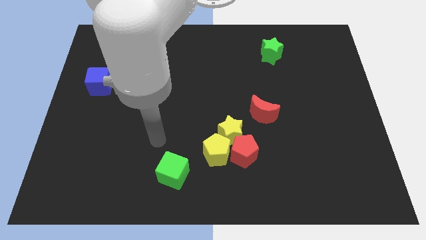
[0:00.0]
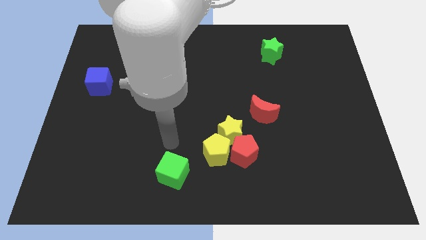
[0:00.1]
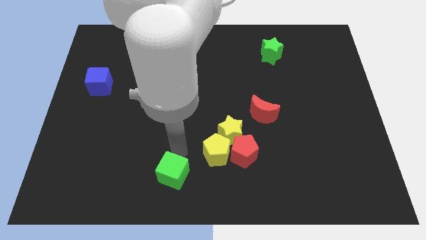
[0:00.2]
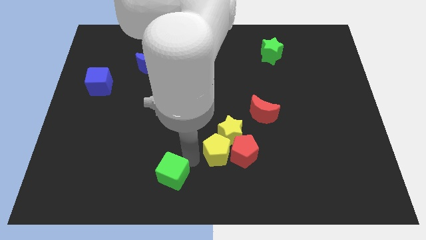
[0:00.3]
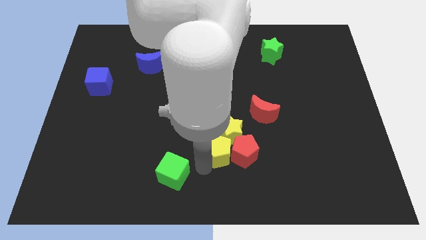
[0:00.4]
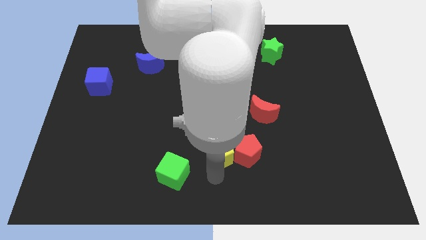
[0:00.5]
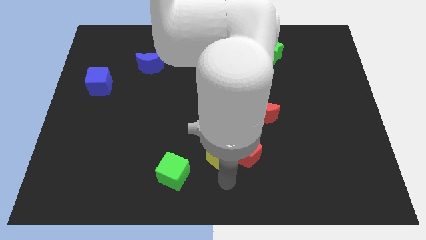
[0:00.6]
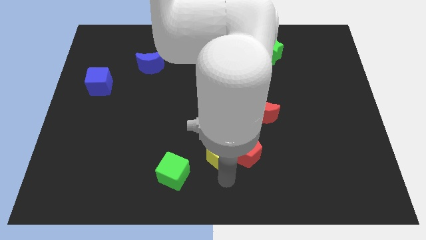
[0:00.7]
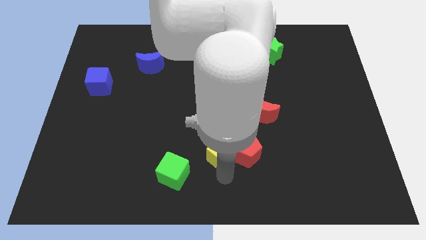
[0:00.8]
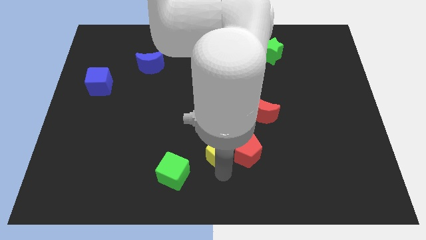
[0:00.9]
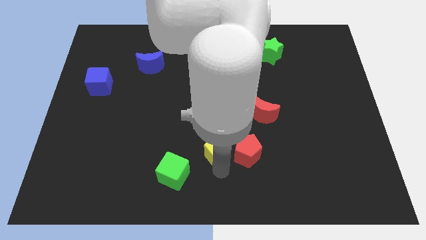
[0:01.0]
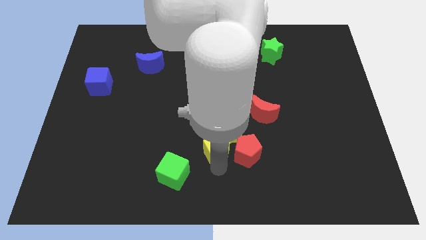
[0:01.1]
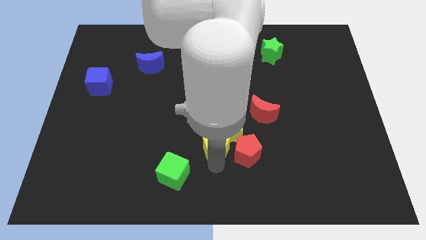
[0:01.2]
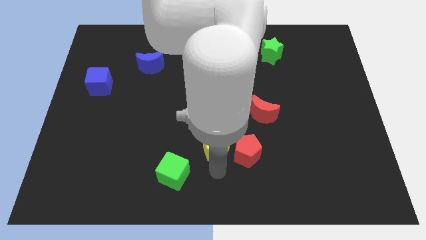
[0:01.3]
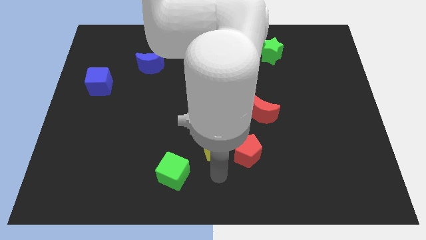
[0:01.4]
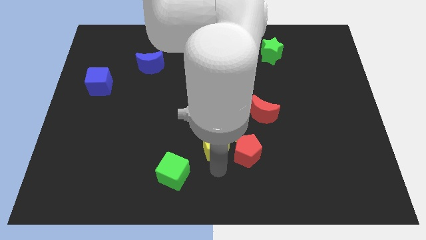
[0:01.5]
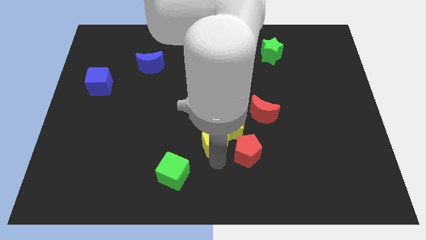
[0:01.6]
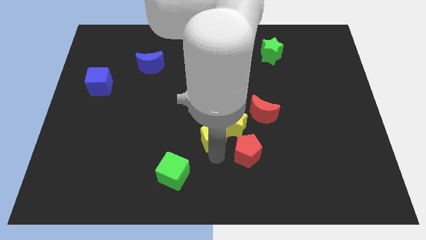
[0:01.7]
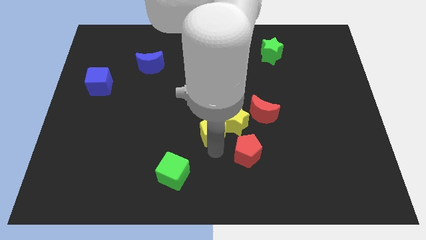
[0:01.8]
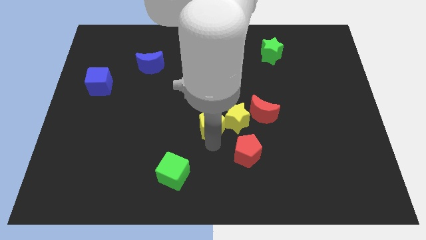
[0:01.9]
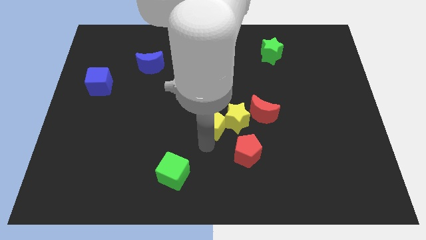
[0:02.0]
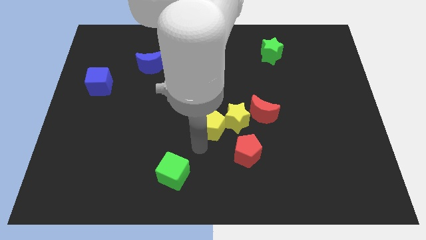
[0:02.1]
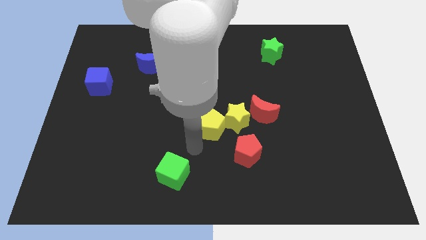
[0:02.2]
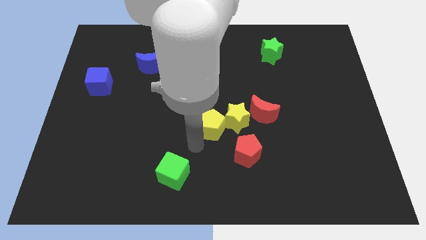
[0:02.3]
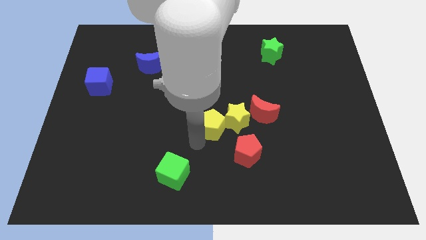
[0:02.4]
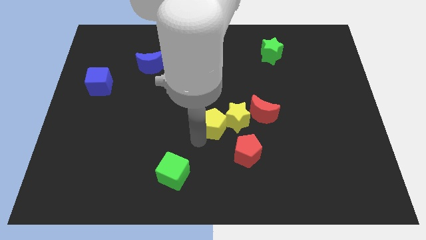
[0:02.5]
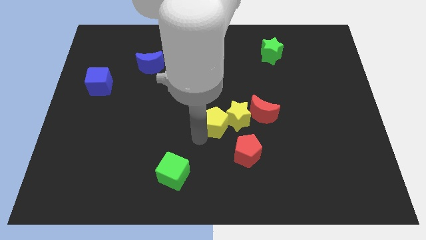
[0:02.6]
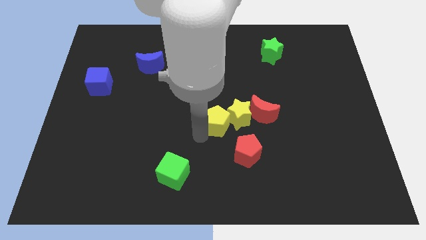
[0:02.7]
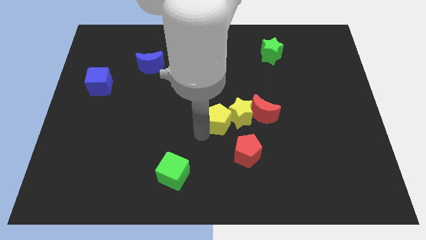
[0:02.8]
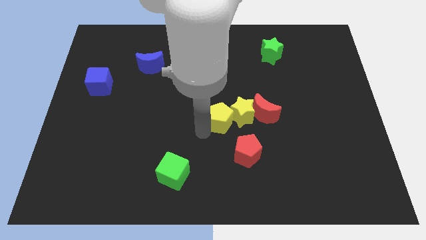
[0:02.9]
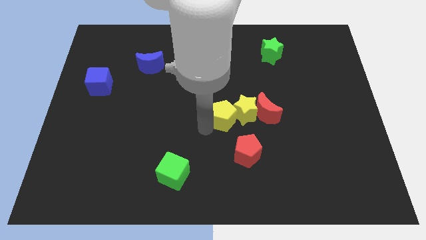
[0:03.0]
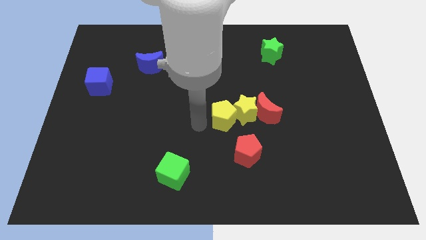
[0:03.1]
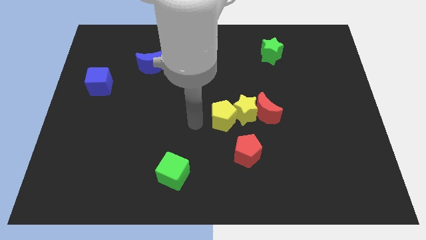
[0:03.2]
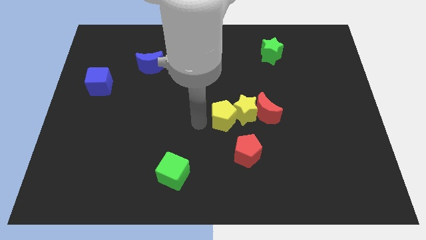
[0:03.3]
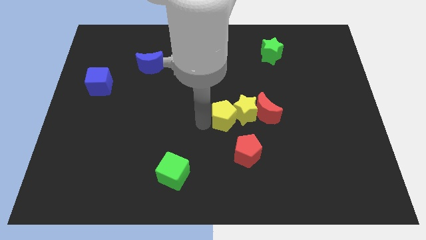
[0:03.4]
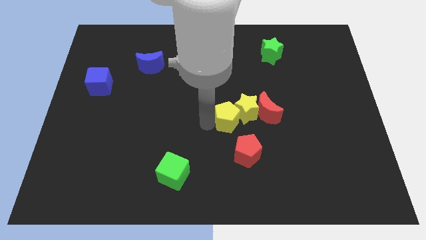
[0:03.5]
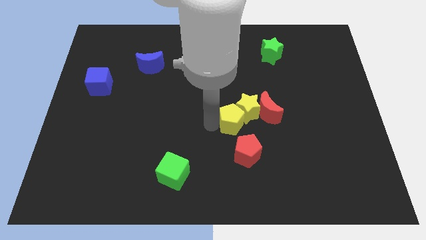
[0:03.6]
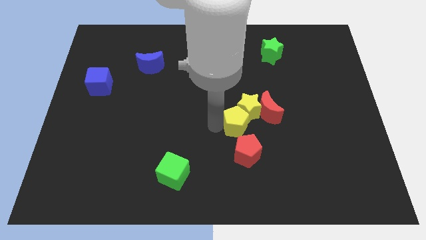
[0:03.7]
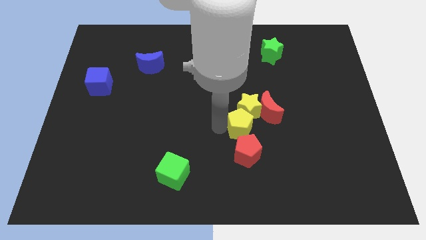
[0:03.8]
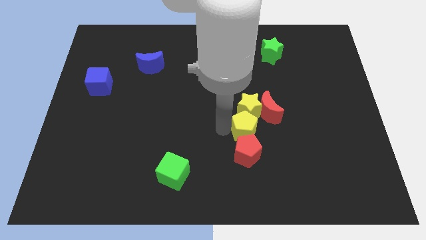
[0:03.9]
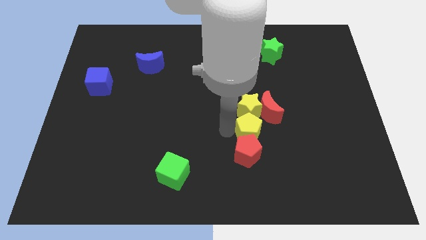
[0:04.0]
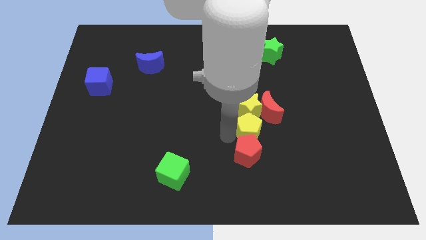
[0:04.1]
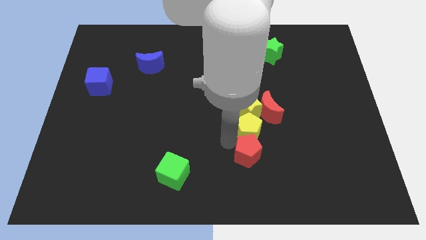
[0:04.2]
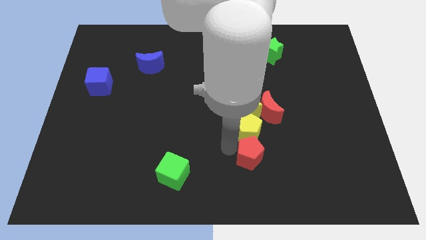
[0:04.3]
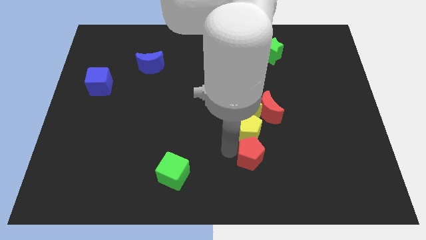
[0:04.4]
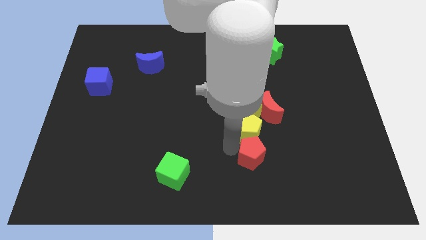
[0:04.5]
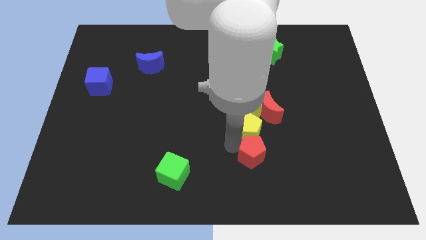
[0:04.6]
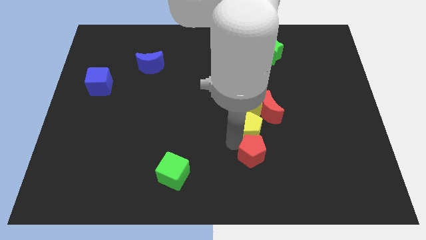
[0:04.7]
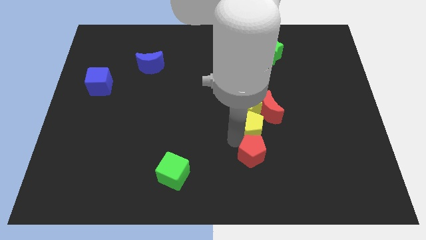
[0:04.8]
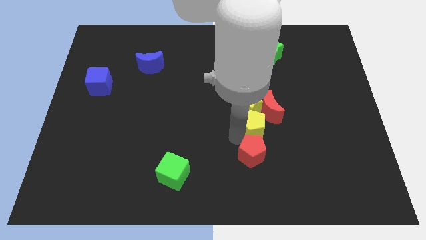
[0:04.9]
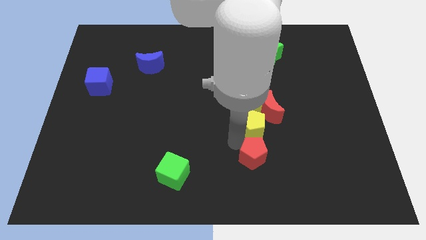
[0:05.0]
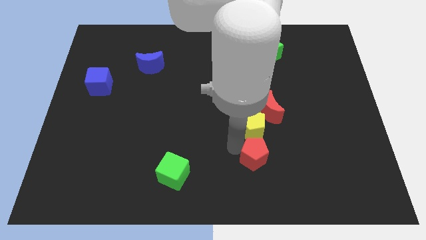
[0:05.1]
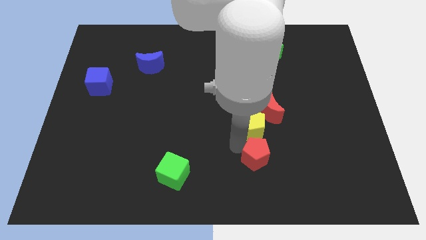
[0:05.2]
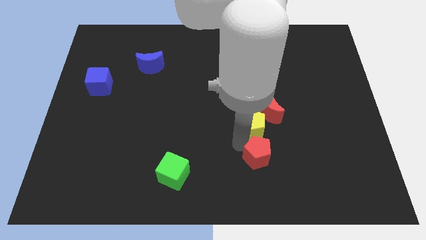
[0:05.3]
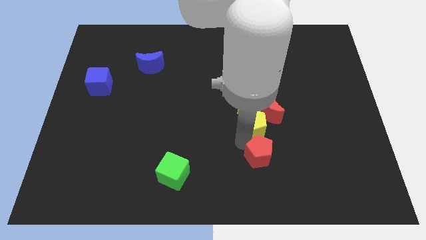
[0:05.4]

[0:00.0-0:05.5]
put the yellow pentagon close to the red moon
